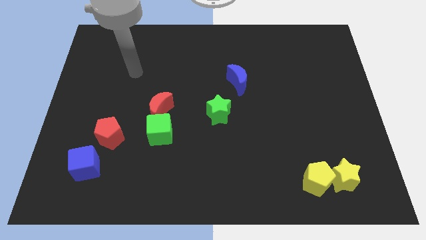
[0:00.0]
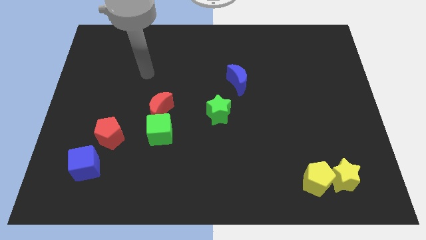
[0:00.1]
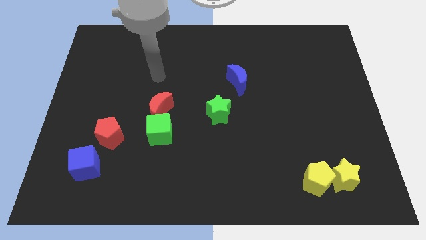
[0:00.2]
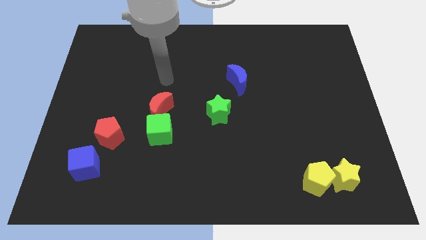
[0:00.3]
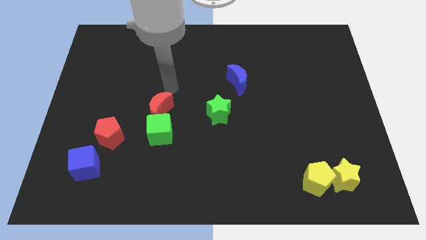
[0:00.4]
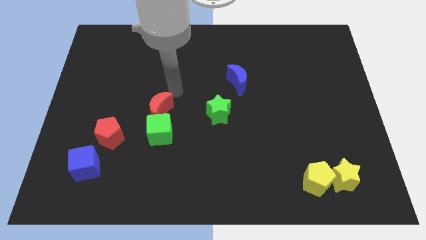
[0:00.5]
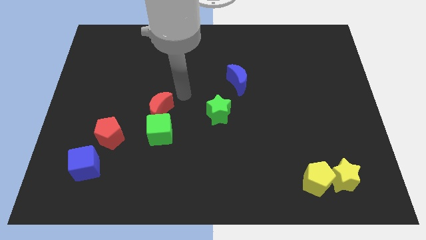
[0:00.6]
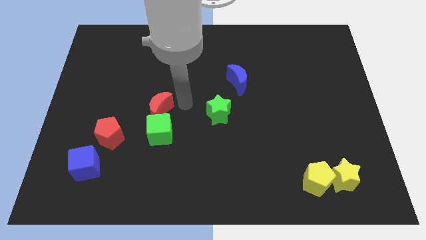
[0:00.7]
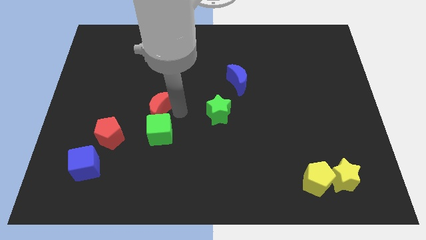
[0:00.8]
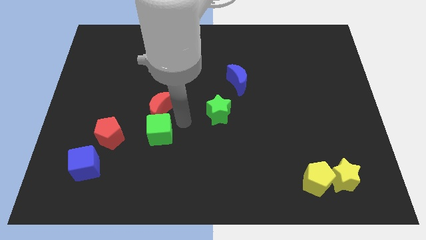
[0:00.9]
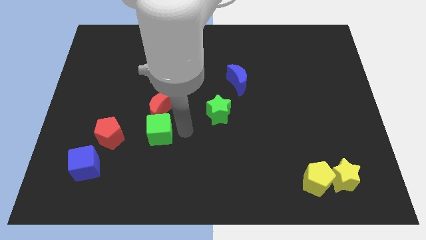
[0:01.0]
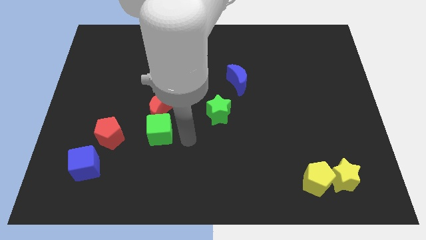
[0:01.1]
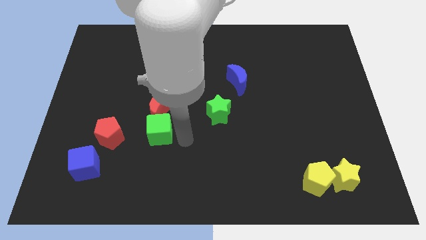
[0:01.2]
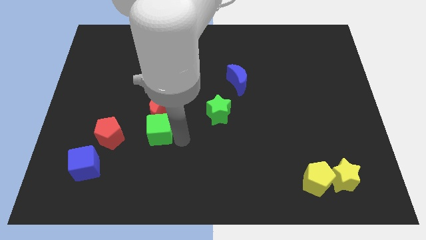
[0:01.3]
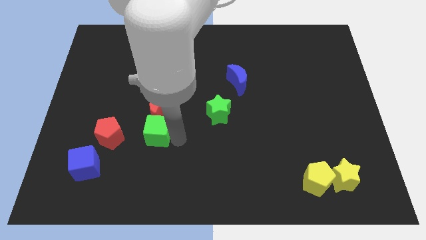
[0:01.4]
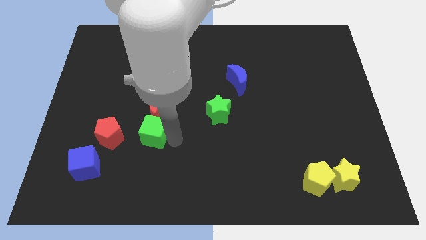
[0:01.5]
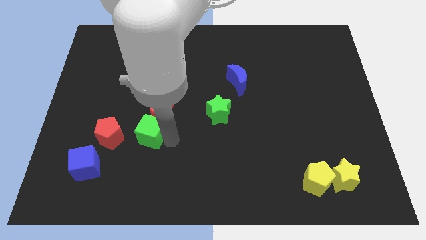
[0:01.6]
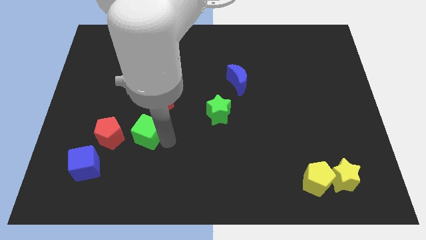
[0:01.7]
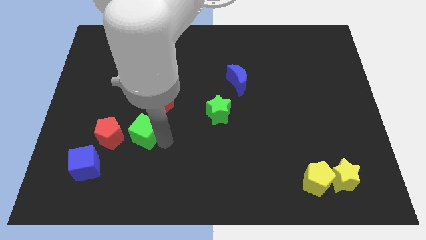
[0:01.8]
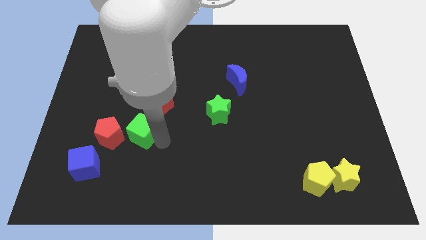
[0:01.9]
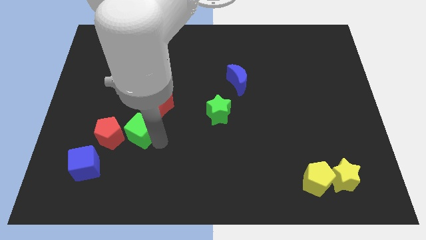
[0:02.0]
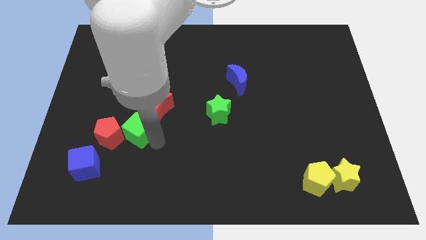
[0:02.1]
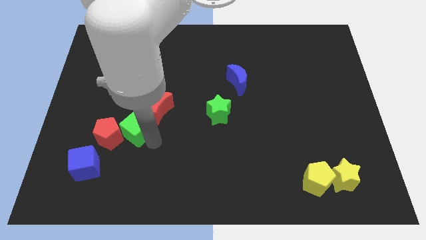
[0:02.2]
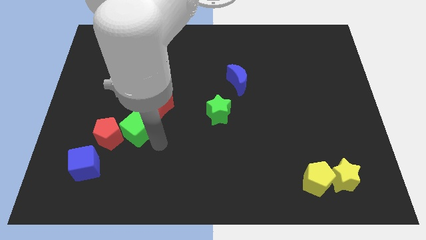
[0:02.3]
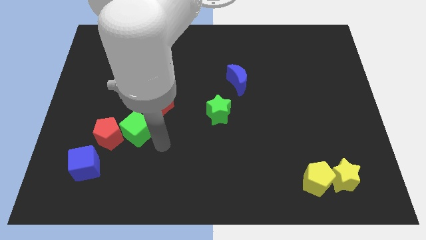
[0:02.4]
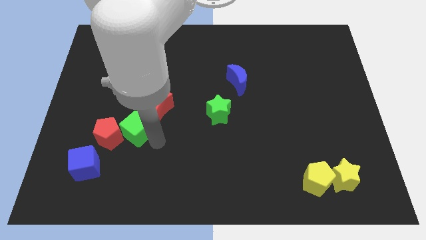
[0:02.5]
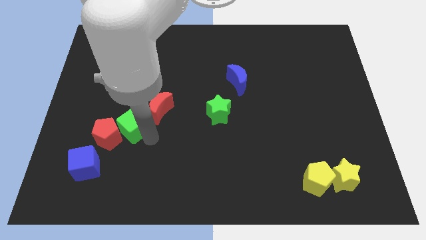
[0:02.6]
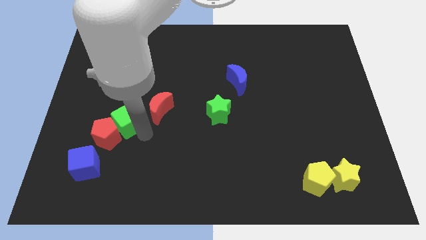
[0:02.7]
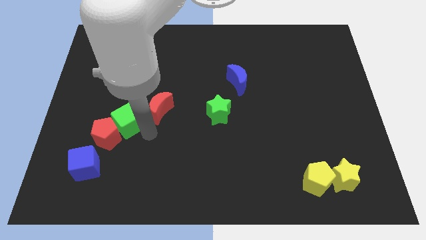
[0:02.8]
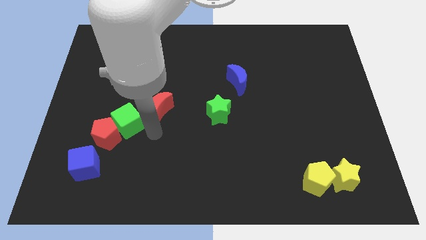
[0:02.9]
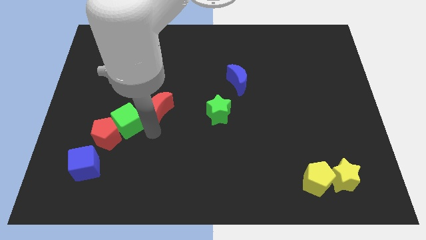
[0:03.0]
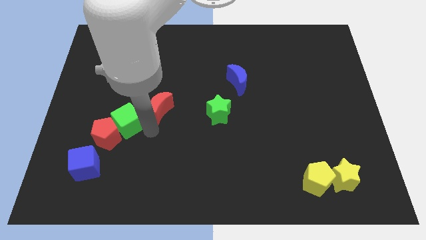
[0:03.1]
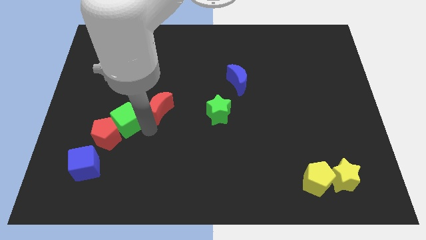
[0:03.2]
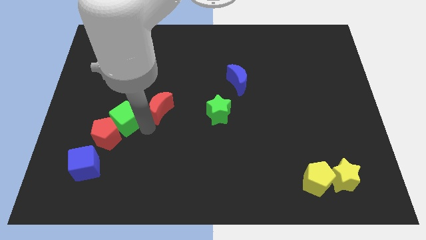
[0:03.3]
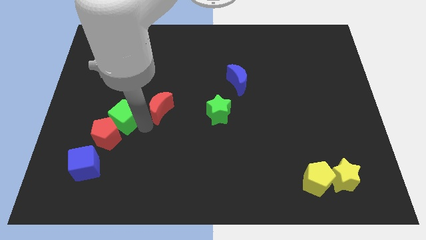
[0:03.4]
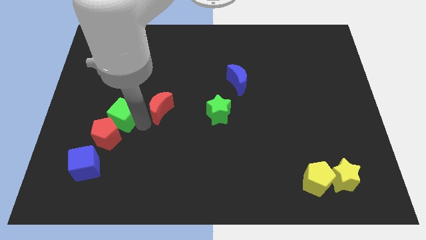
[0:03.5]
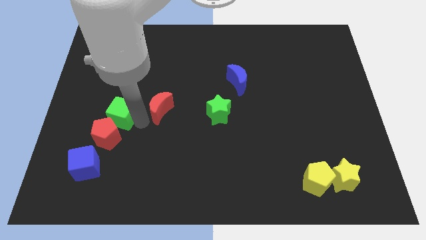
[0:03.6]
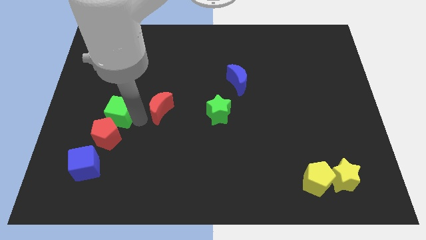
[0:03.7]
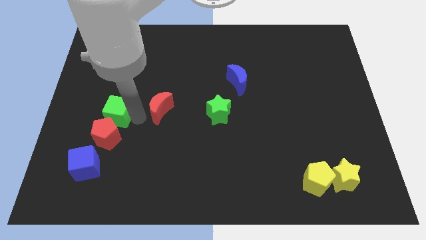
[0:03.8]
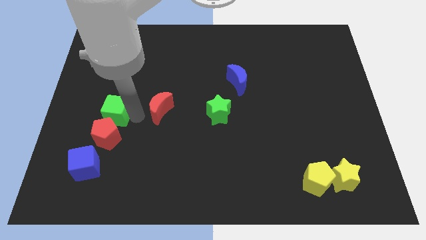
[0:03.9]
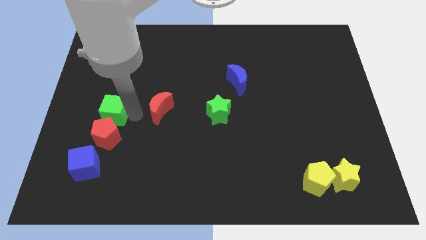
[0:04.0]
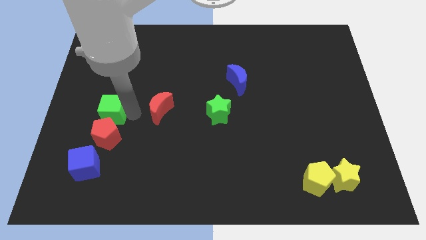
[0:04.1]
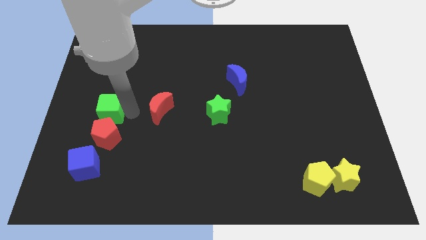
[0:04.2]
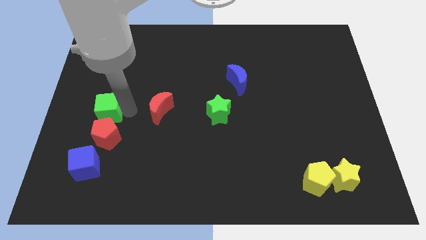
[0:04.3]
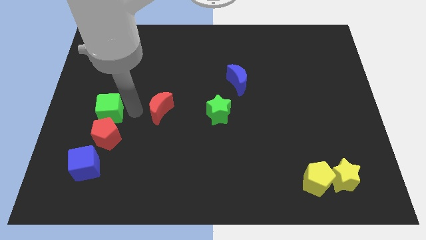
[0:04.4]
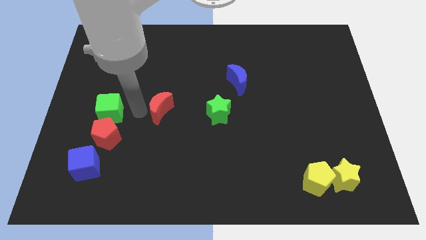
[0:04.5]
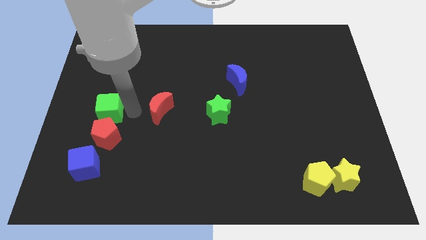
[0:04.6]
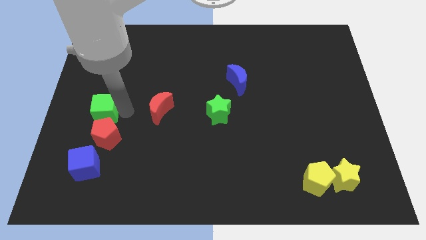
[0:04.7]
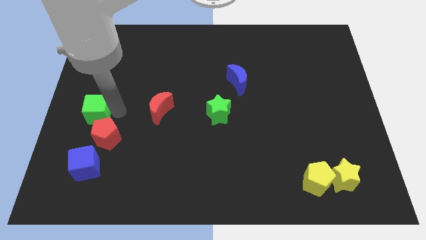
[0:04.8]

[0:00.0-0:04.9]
move the green cube to the left side
